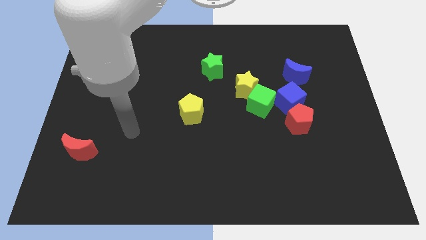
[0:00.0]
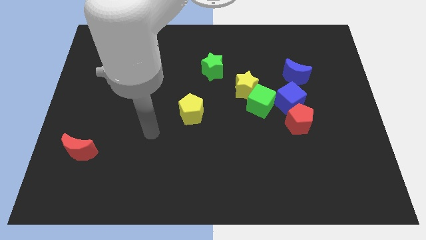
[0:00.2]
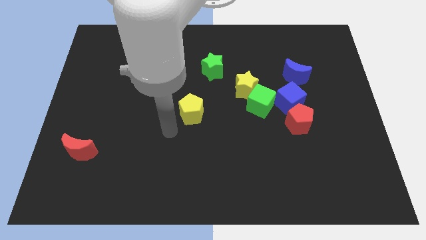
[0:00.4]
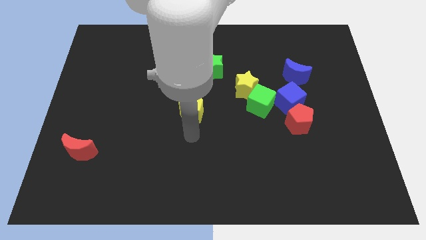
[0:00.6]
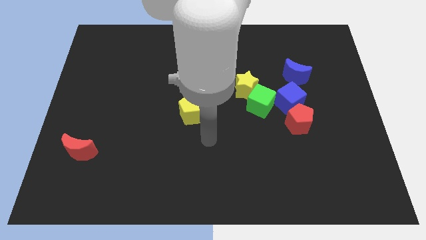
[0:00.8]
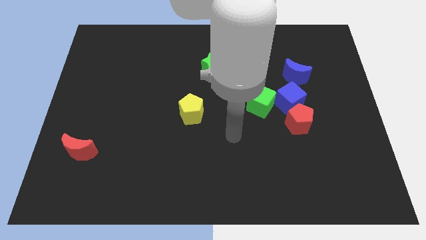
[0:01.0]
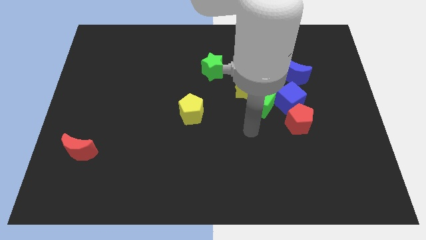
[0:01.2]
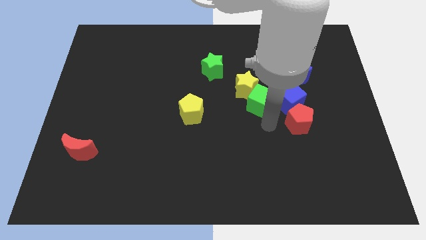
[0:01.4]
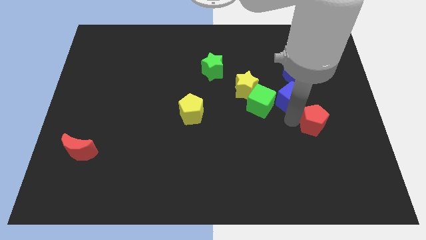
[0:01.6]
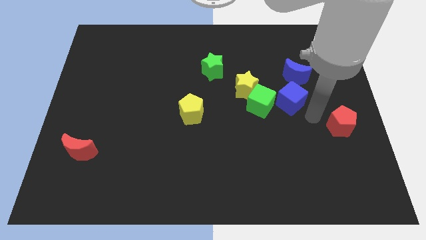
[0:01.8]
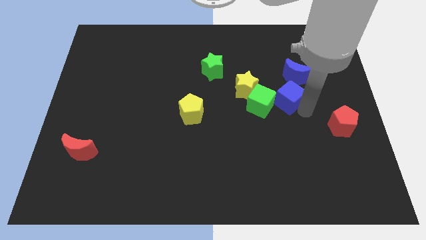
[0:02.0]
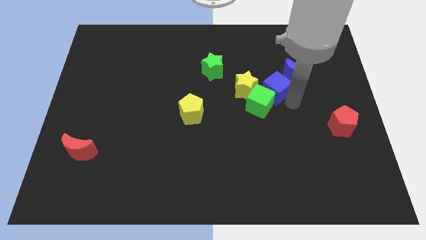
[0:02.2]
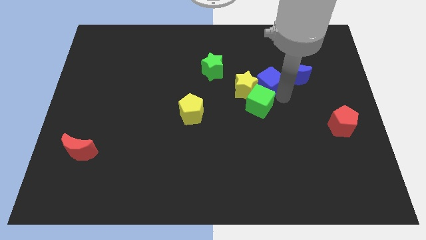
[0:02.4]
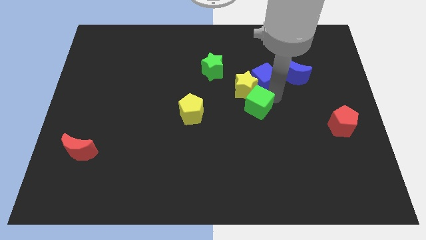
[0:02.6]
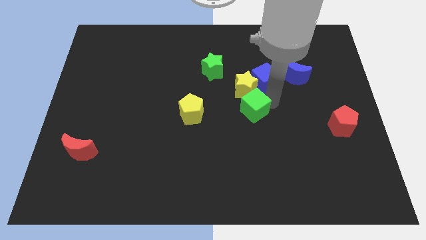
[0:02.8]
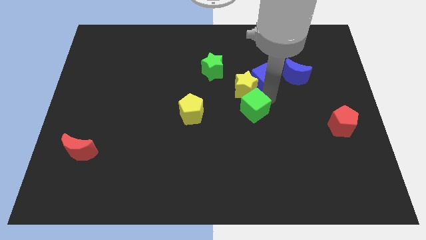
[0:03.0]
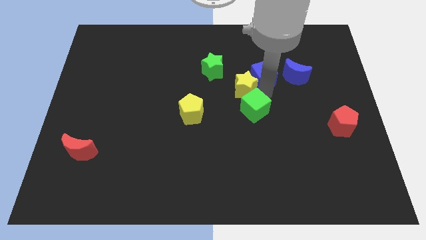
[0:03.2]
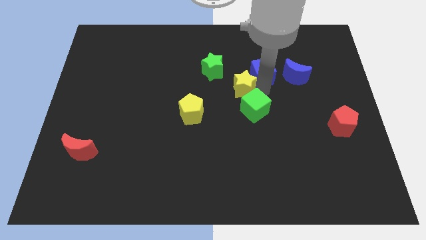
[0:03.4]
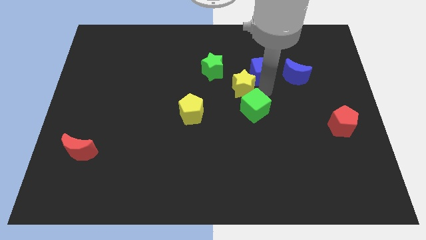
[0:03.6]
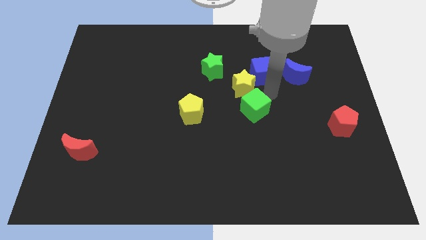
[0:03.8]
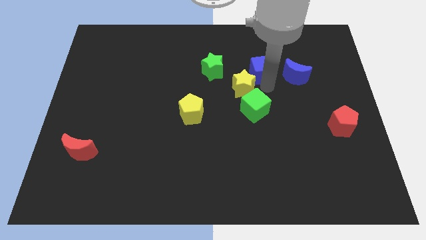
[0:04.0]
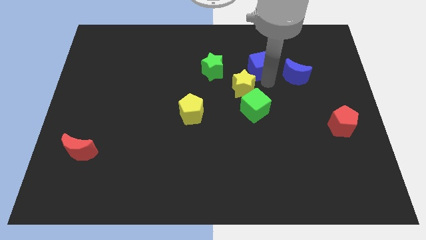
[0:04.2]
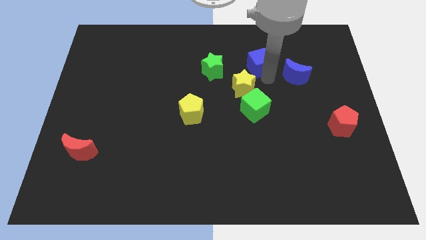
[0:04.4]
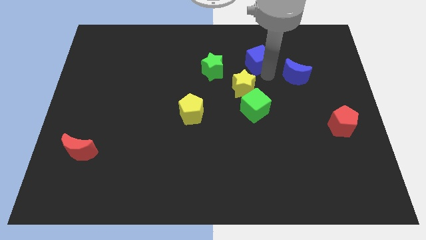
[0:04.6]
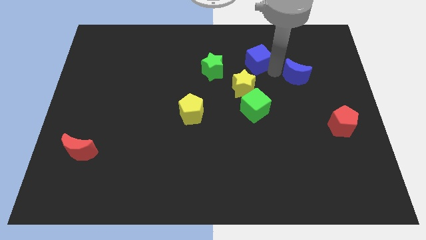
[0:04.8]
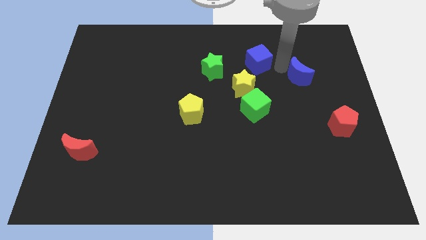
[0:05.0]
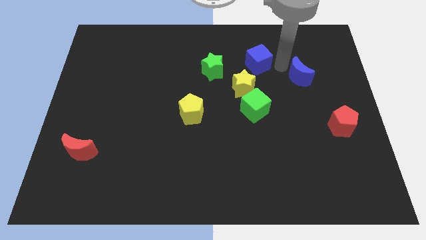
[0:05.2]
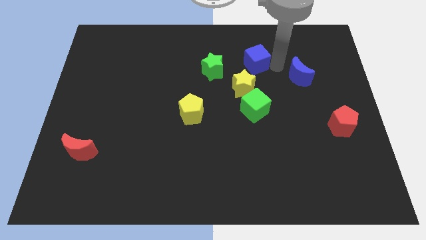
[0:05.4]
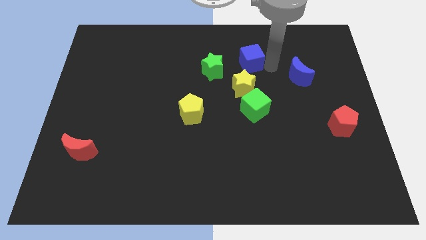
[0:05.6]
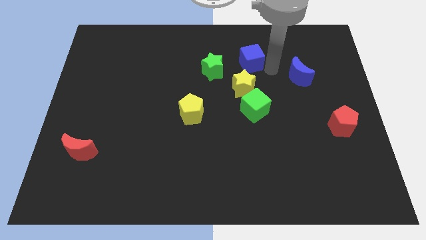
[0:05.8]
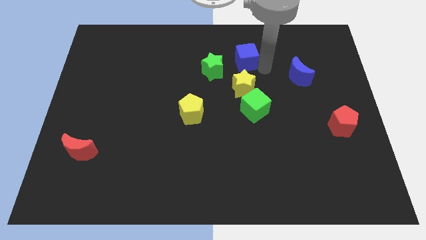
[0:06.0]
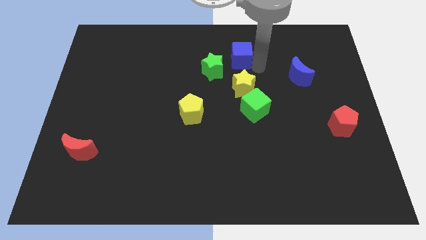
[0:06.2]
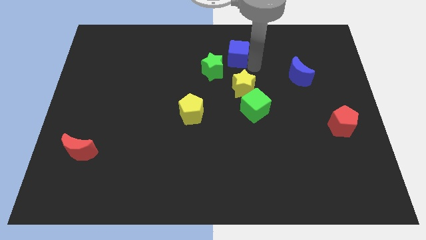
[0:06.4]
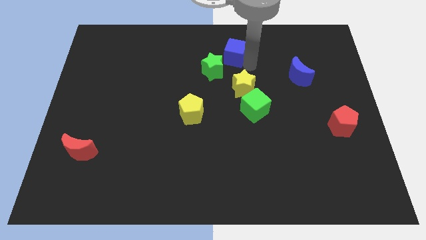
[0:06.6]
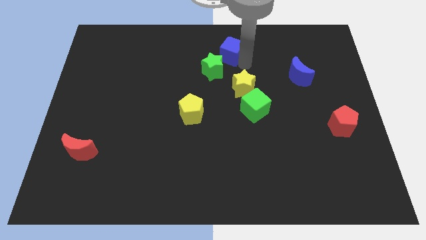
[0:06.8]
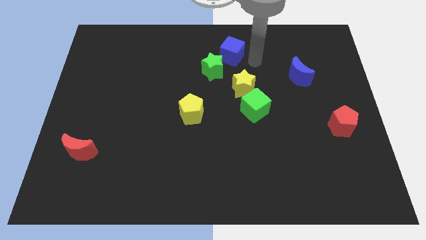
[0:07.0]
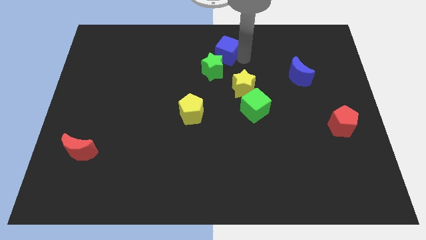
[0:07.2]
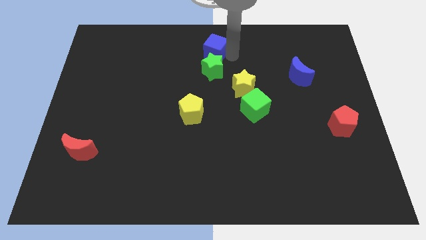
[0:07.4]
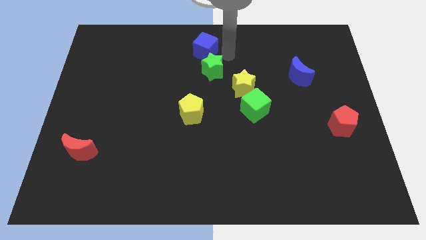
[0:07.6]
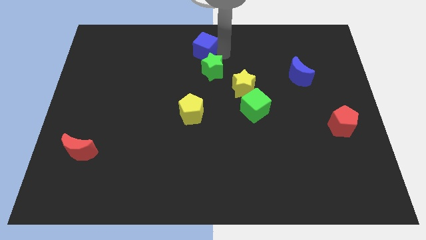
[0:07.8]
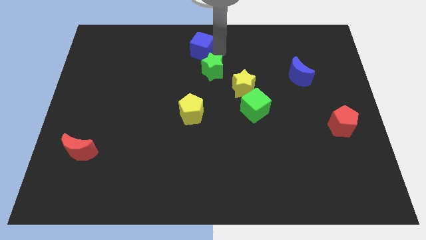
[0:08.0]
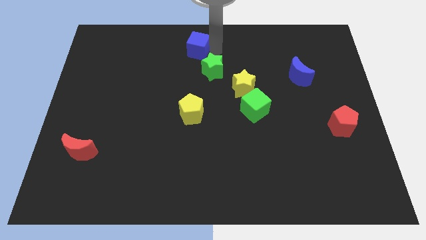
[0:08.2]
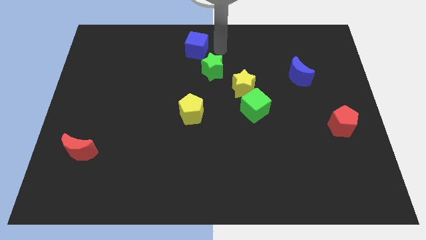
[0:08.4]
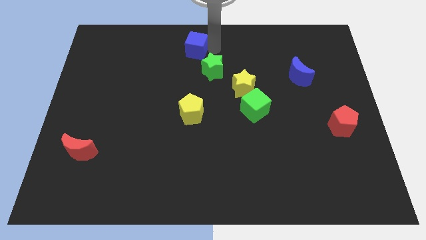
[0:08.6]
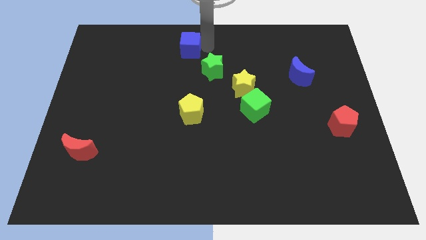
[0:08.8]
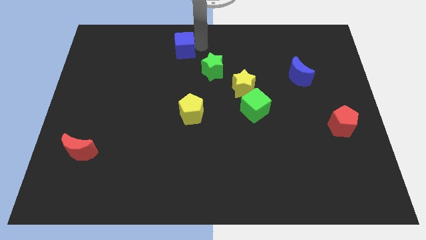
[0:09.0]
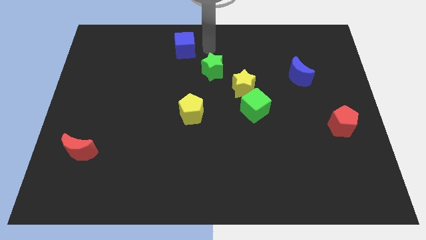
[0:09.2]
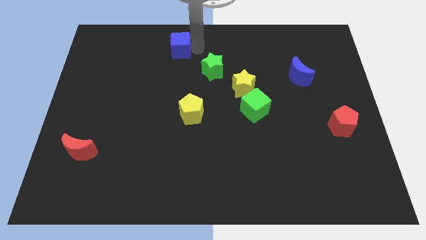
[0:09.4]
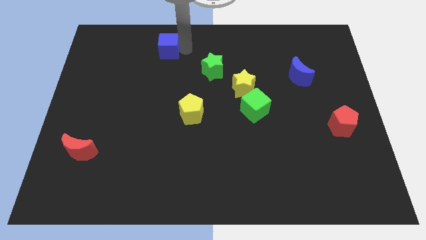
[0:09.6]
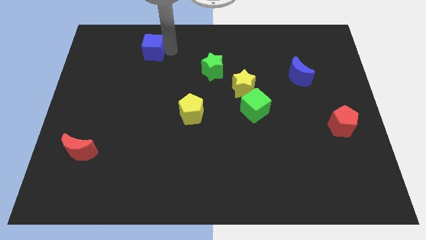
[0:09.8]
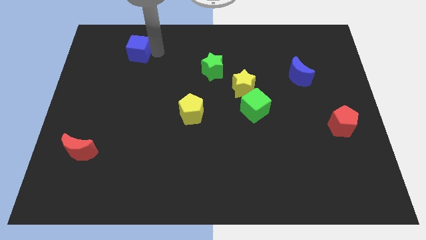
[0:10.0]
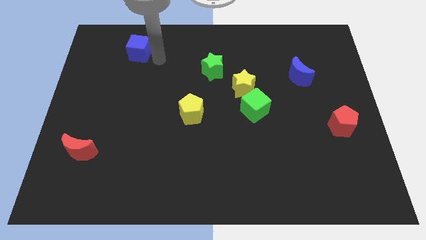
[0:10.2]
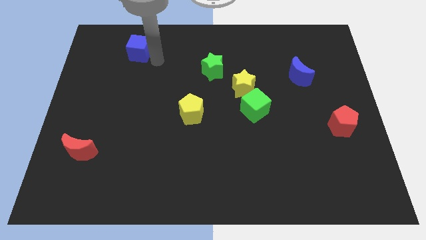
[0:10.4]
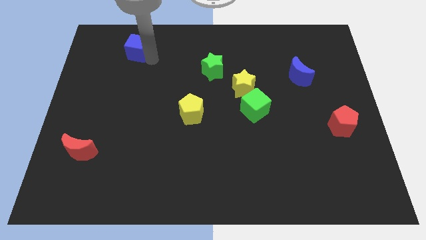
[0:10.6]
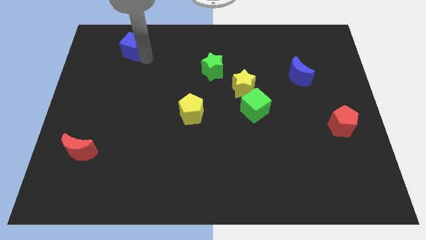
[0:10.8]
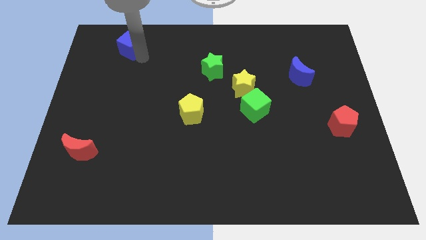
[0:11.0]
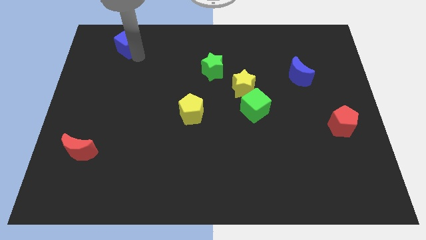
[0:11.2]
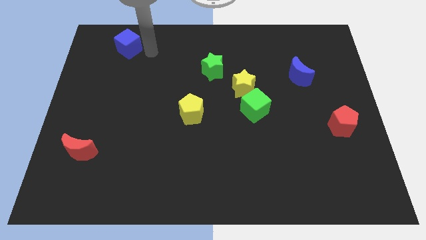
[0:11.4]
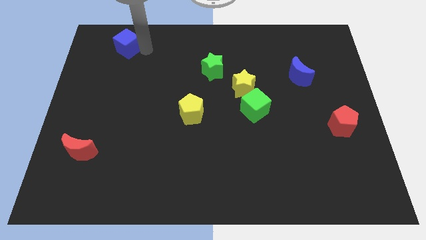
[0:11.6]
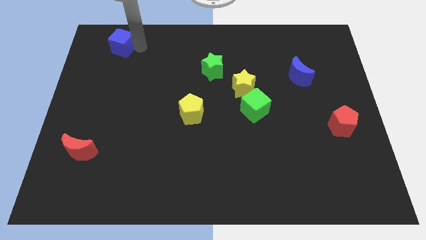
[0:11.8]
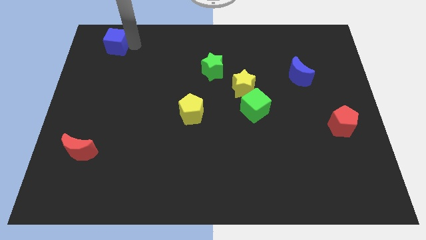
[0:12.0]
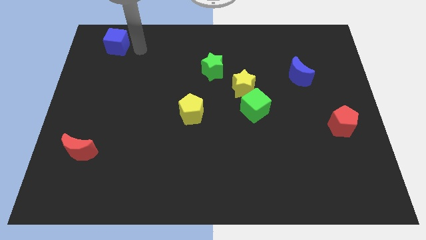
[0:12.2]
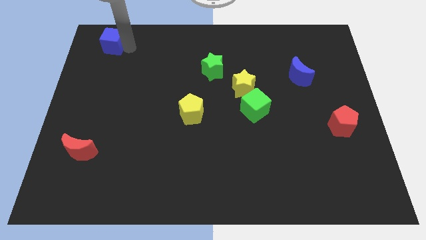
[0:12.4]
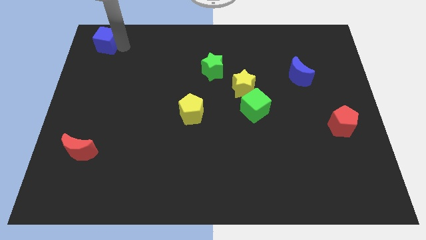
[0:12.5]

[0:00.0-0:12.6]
move the blue cube to the top left corner

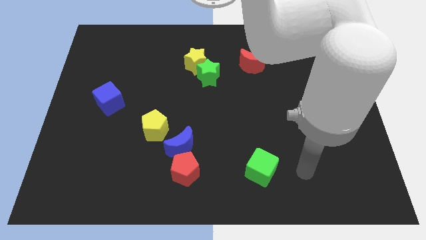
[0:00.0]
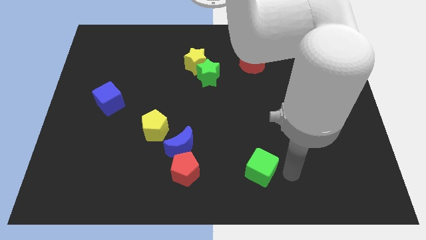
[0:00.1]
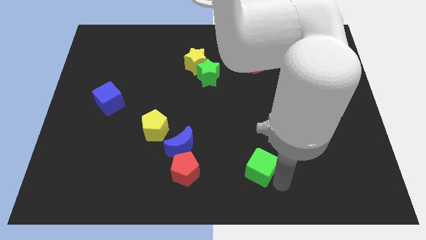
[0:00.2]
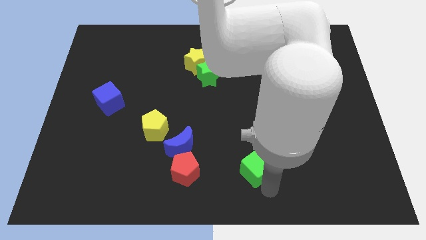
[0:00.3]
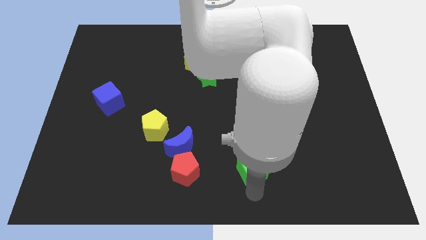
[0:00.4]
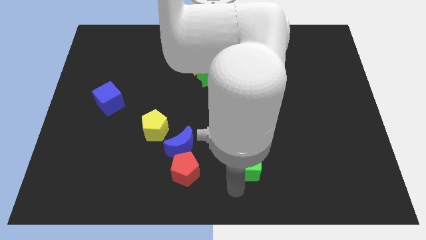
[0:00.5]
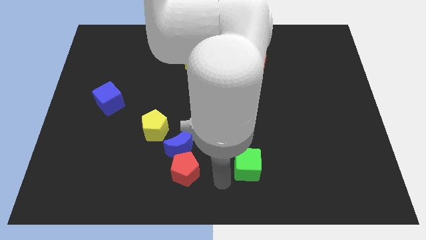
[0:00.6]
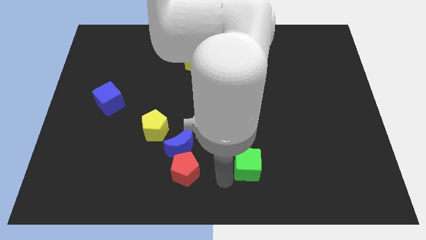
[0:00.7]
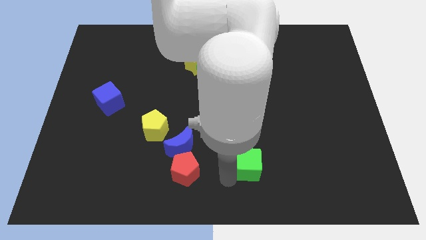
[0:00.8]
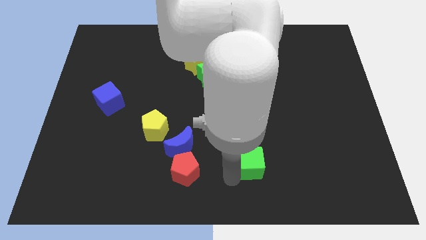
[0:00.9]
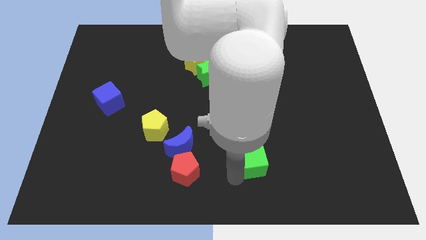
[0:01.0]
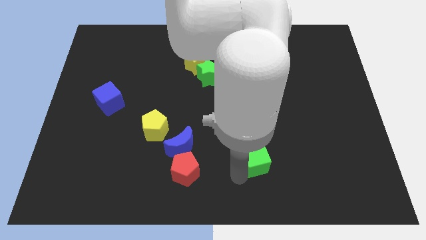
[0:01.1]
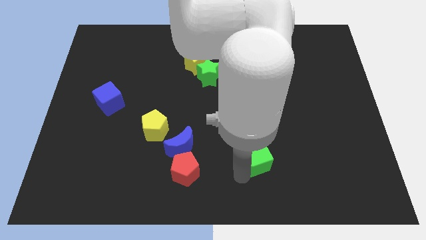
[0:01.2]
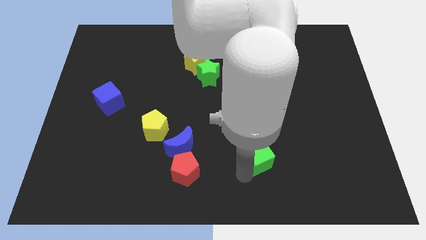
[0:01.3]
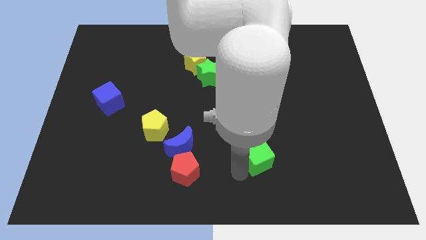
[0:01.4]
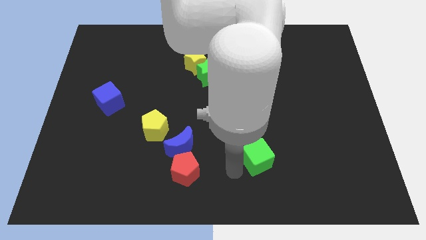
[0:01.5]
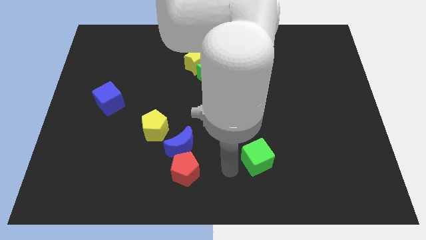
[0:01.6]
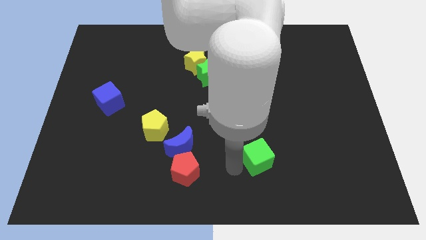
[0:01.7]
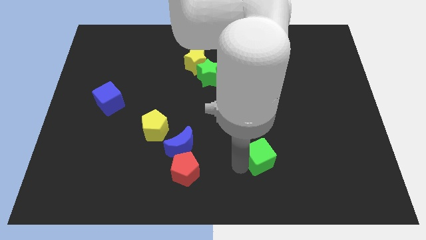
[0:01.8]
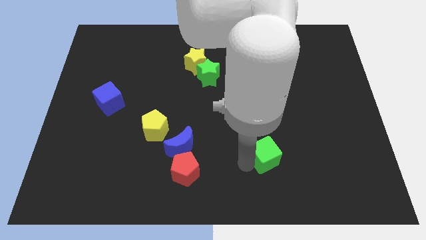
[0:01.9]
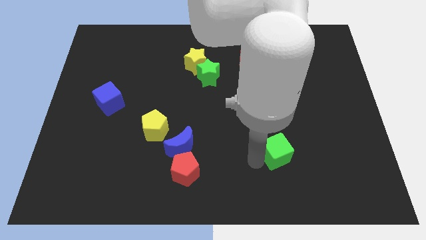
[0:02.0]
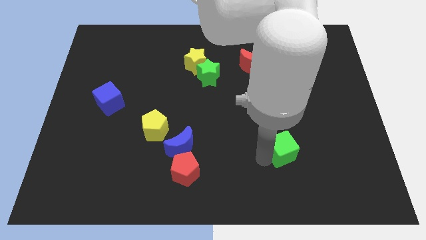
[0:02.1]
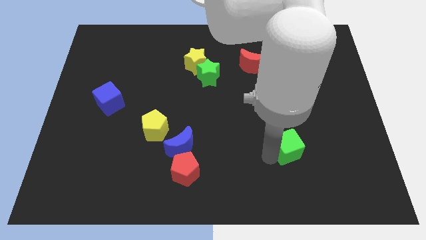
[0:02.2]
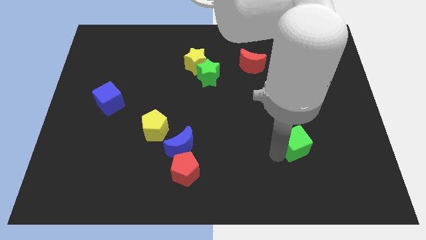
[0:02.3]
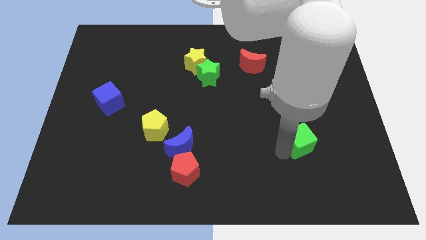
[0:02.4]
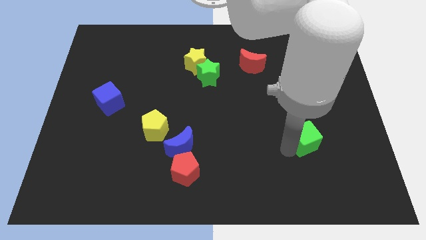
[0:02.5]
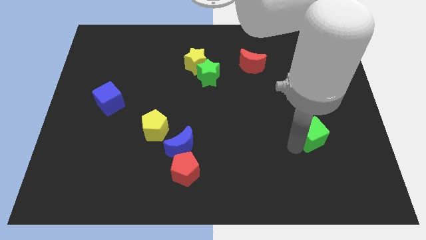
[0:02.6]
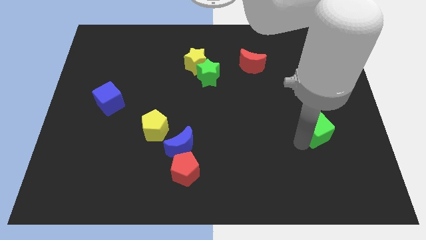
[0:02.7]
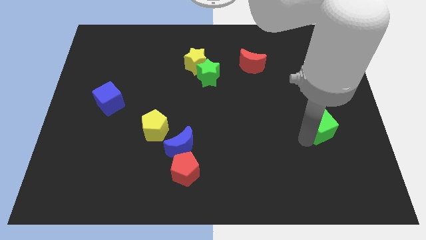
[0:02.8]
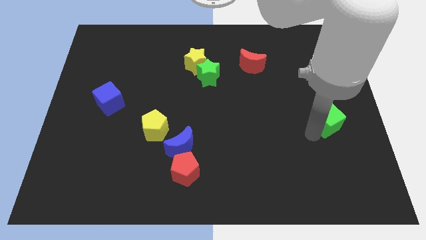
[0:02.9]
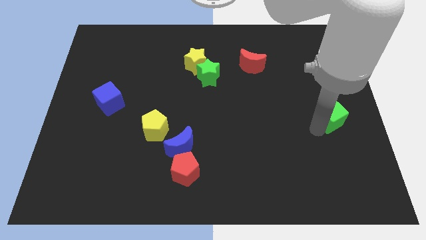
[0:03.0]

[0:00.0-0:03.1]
push the green cube to the center right
